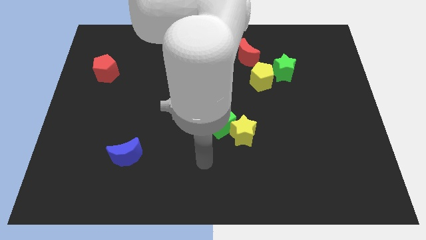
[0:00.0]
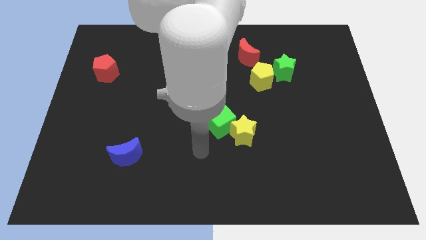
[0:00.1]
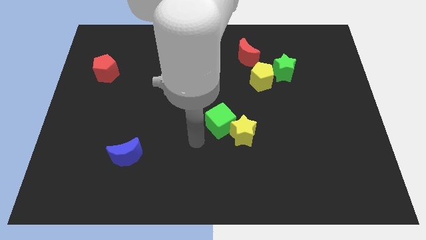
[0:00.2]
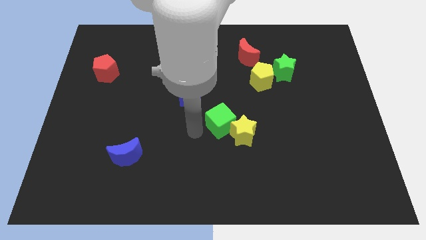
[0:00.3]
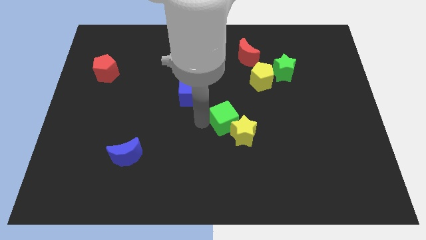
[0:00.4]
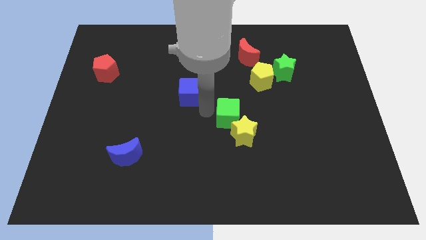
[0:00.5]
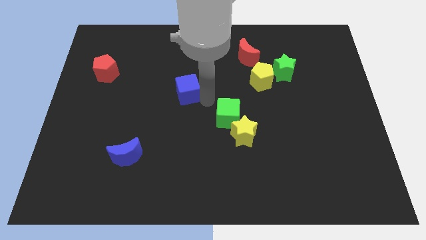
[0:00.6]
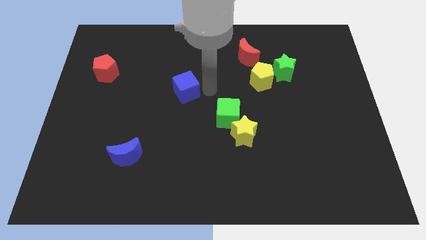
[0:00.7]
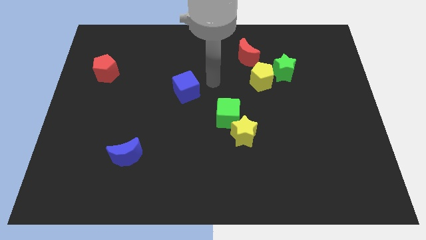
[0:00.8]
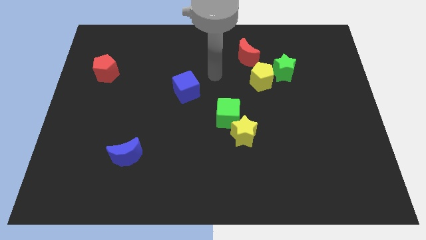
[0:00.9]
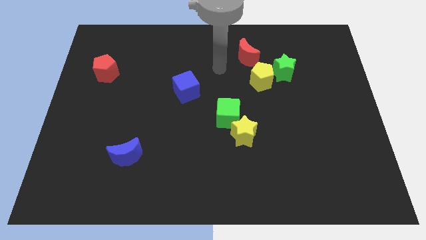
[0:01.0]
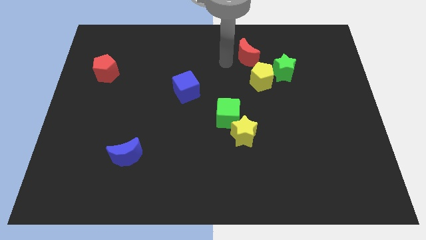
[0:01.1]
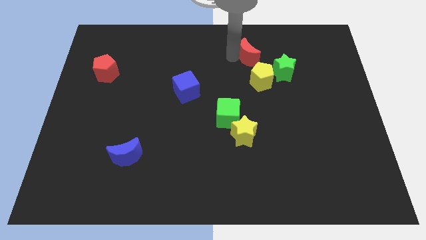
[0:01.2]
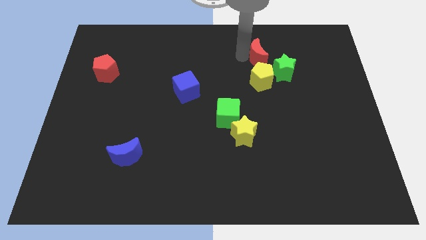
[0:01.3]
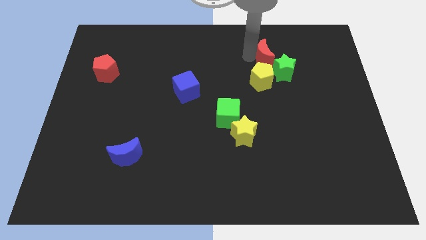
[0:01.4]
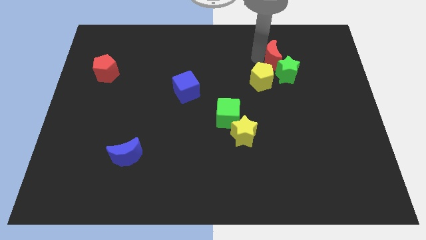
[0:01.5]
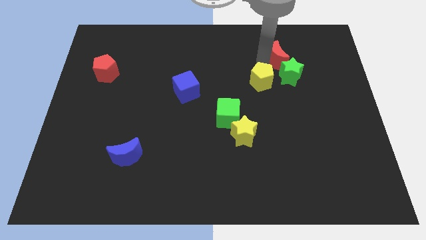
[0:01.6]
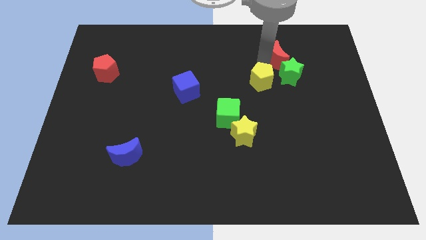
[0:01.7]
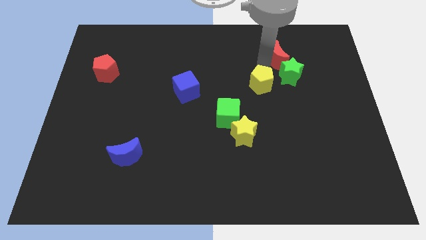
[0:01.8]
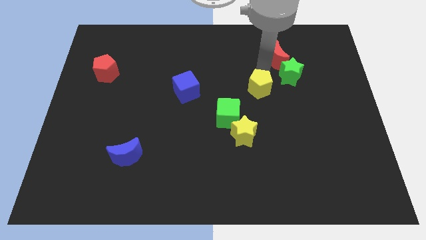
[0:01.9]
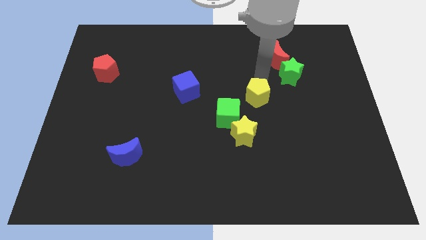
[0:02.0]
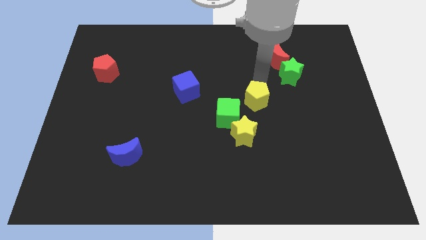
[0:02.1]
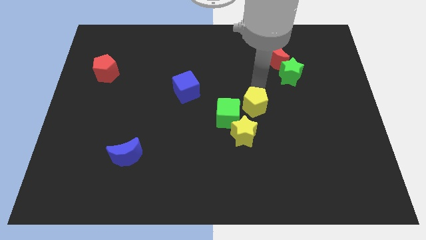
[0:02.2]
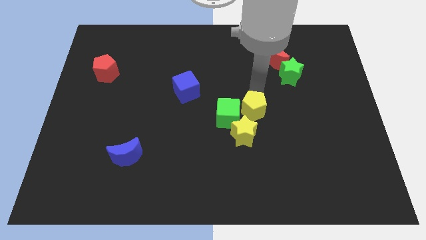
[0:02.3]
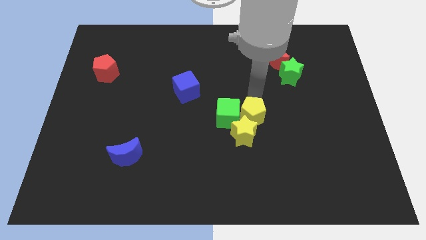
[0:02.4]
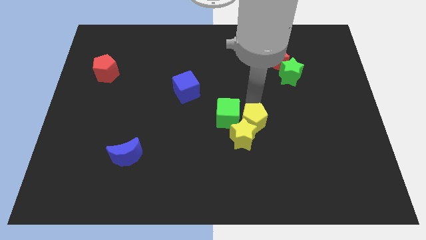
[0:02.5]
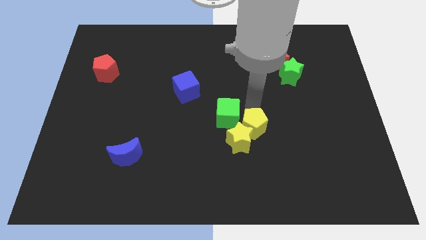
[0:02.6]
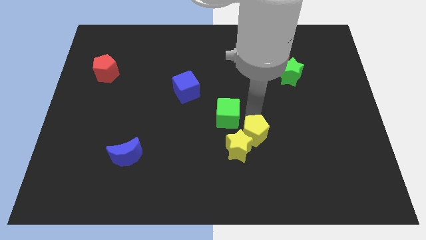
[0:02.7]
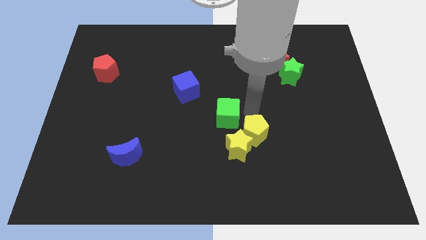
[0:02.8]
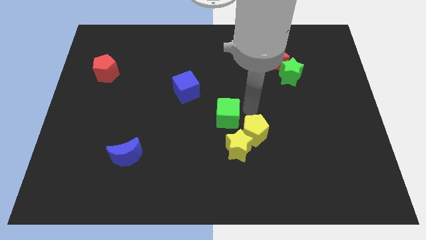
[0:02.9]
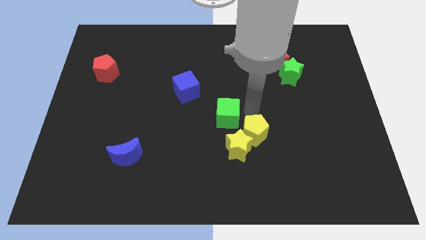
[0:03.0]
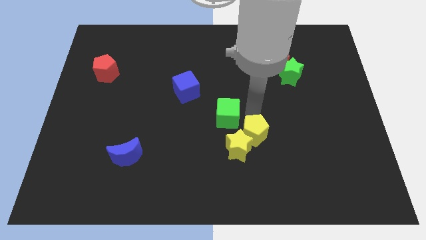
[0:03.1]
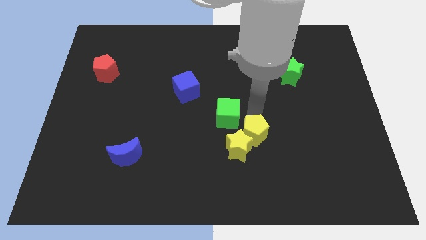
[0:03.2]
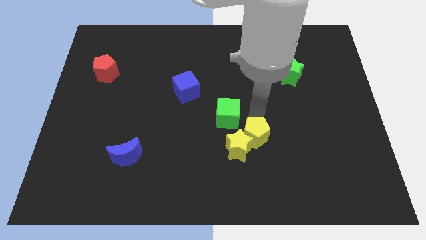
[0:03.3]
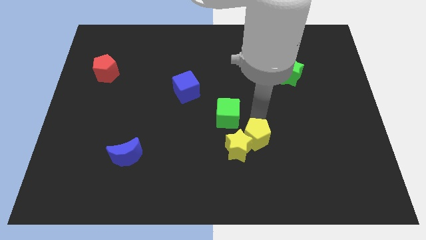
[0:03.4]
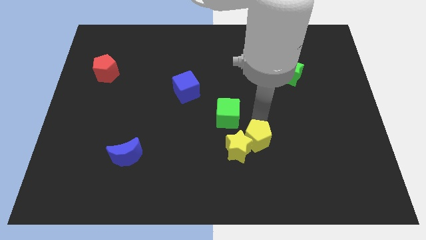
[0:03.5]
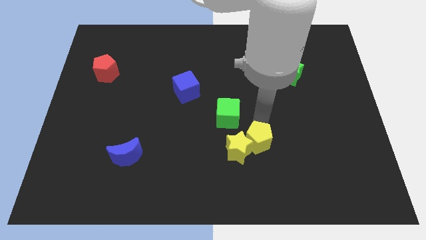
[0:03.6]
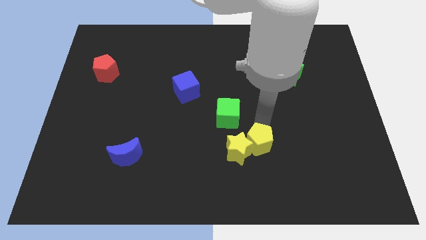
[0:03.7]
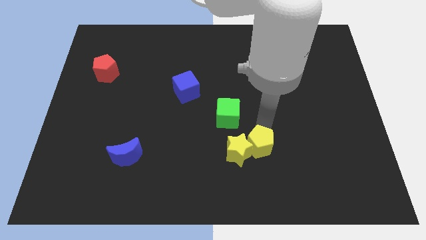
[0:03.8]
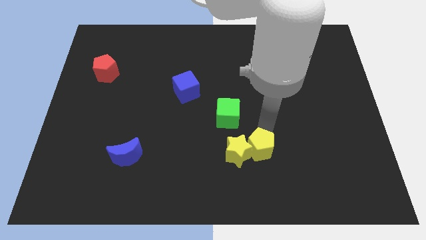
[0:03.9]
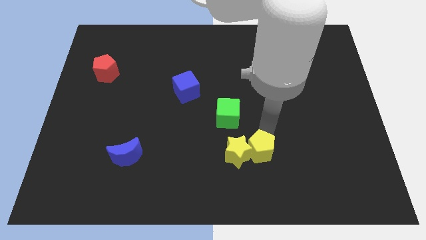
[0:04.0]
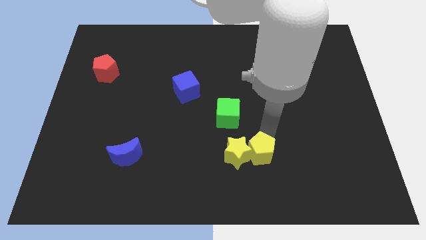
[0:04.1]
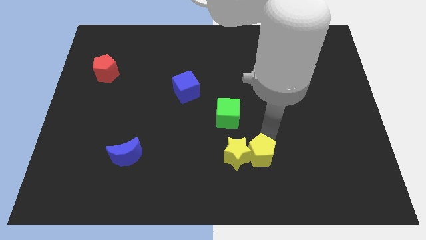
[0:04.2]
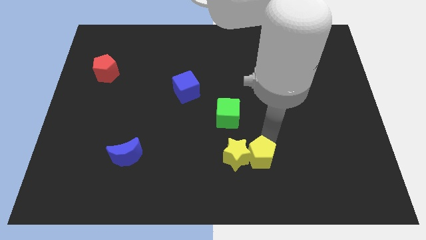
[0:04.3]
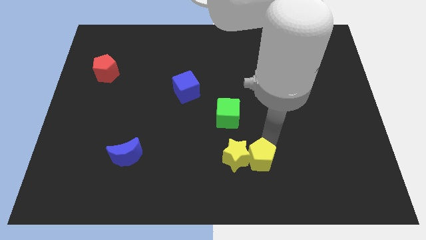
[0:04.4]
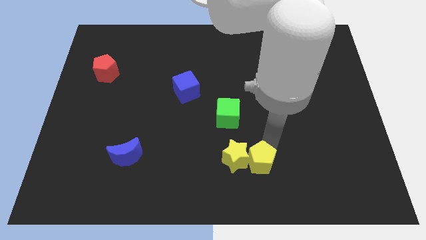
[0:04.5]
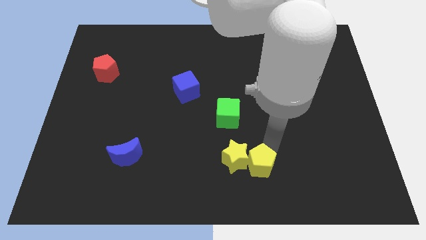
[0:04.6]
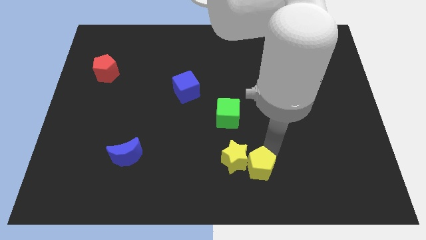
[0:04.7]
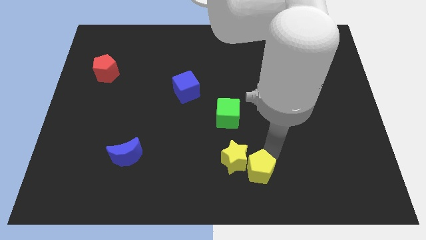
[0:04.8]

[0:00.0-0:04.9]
move the yellow pentagon to the bottom side
